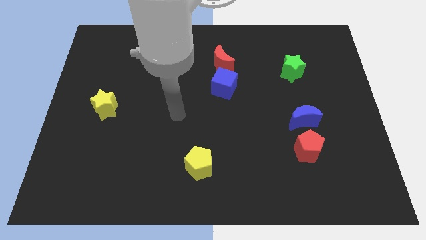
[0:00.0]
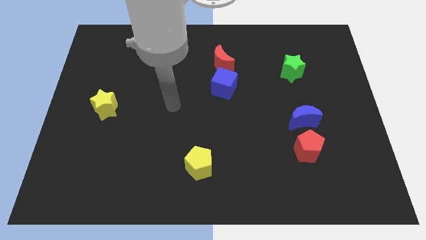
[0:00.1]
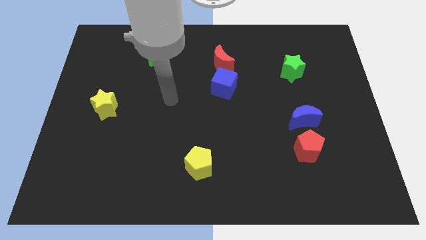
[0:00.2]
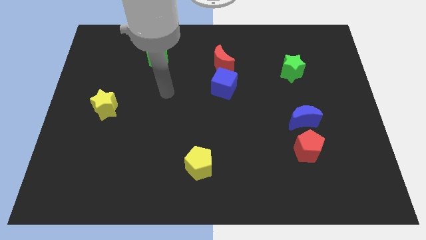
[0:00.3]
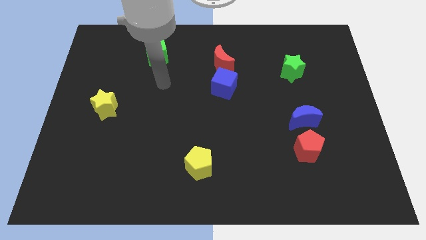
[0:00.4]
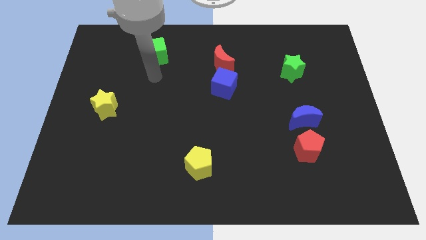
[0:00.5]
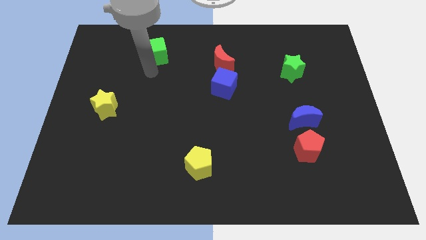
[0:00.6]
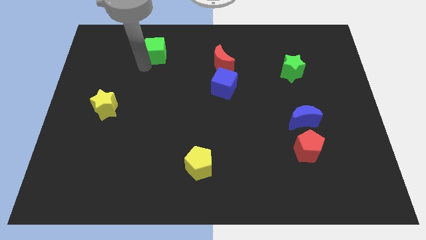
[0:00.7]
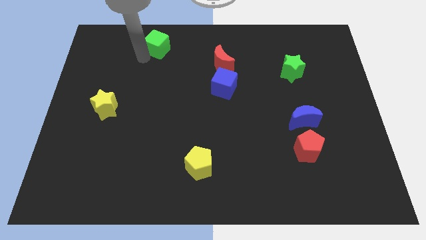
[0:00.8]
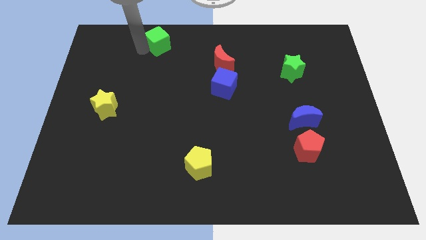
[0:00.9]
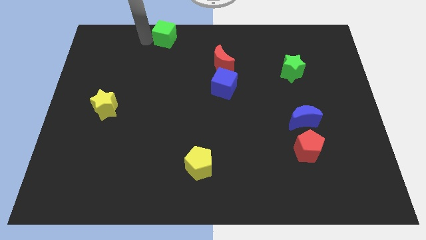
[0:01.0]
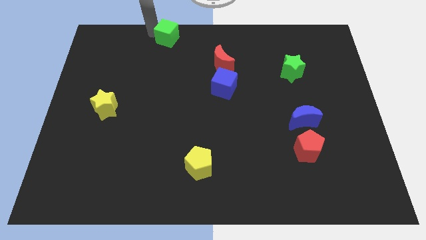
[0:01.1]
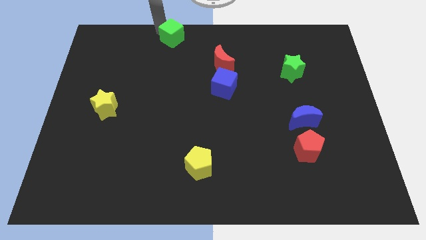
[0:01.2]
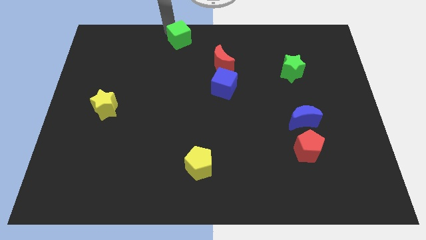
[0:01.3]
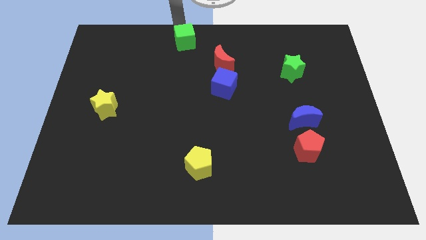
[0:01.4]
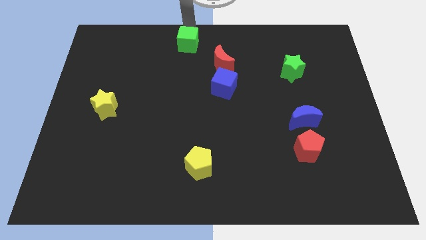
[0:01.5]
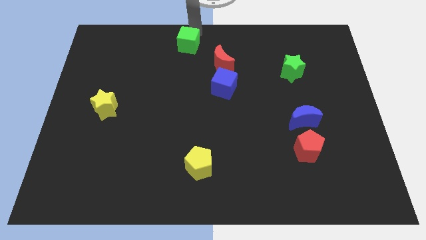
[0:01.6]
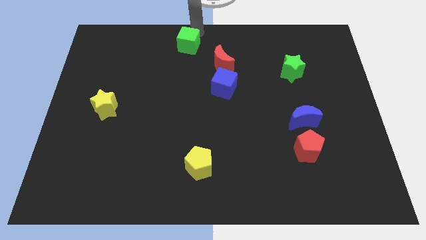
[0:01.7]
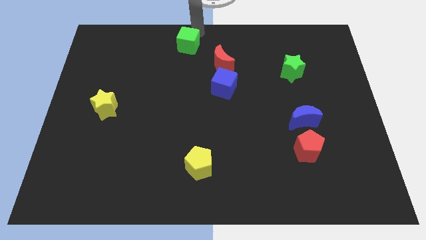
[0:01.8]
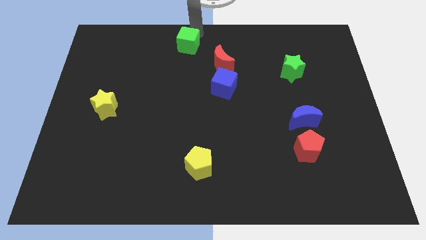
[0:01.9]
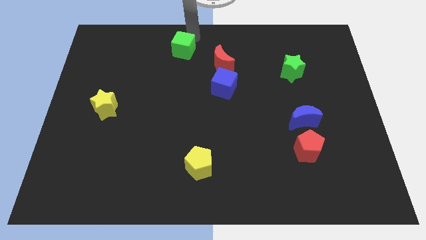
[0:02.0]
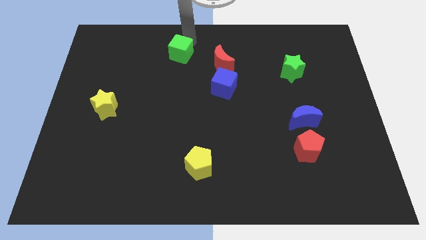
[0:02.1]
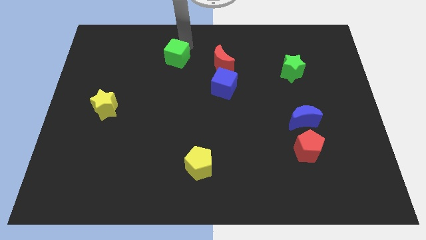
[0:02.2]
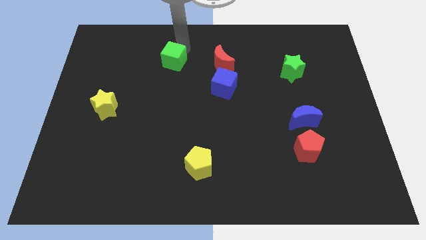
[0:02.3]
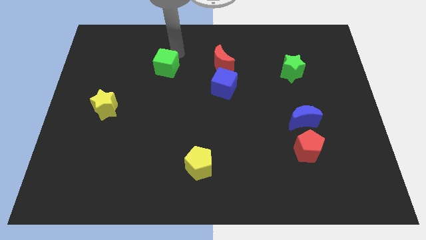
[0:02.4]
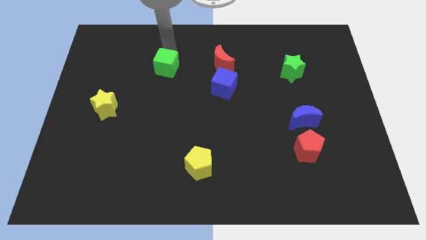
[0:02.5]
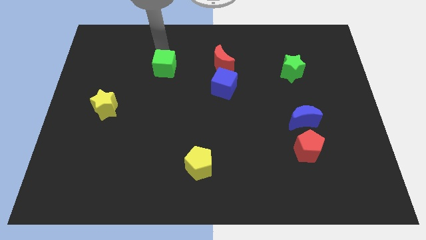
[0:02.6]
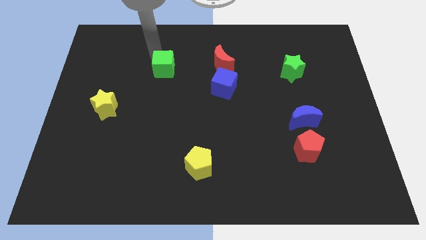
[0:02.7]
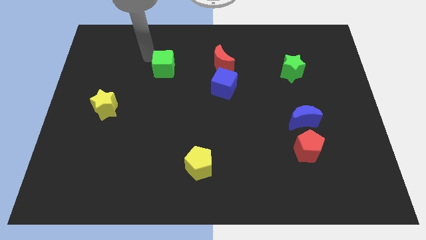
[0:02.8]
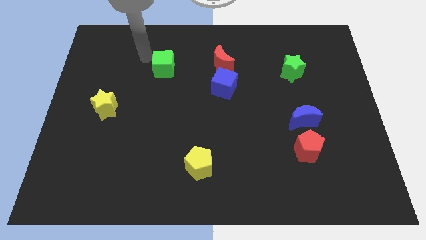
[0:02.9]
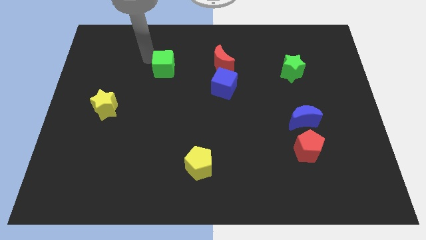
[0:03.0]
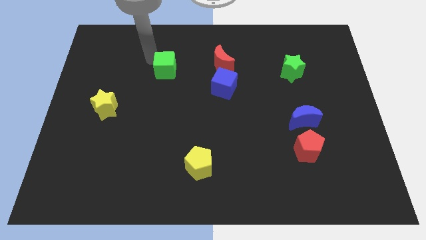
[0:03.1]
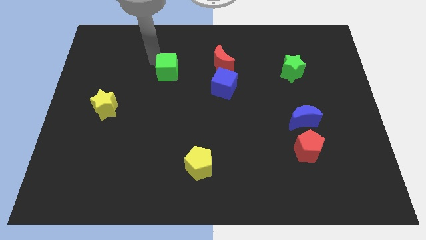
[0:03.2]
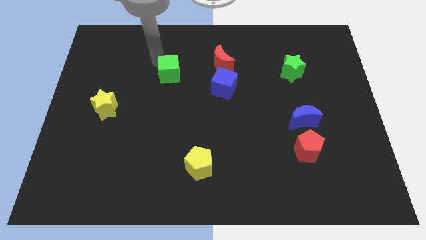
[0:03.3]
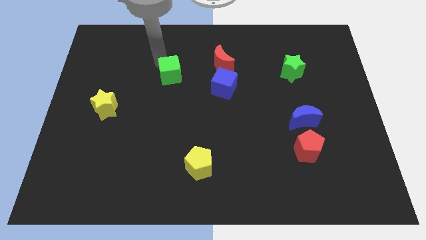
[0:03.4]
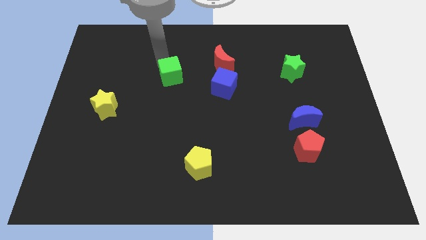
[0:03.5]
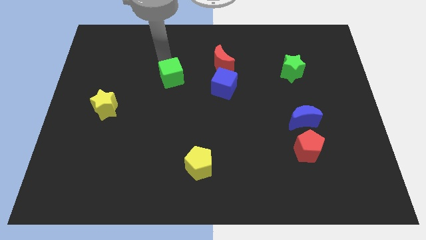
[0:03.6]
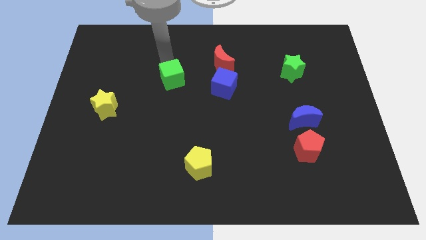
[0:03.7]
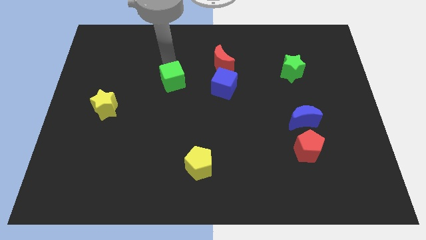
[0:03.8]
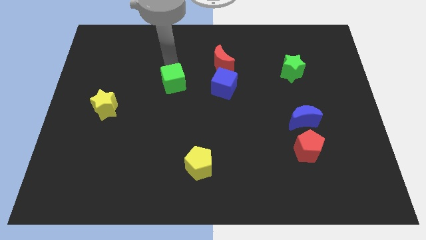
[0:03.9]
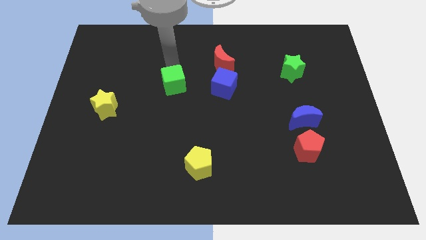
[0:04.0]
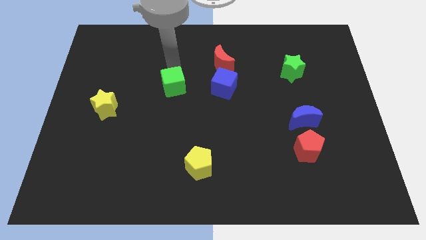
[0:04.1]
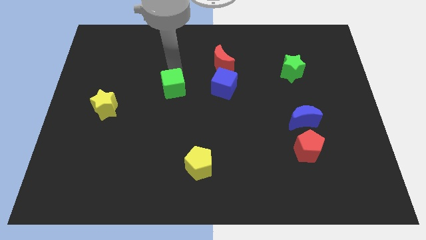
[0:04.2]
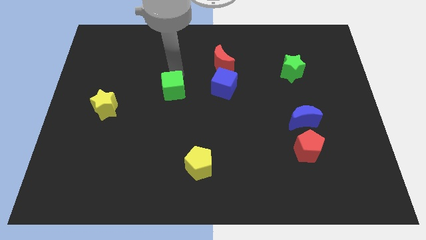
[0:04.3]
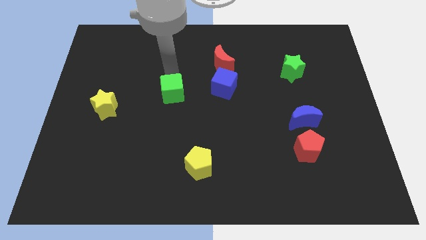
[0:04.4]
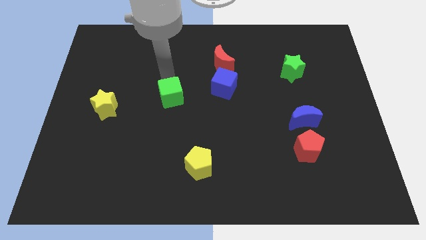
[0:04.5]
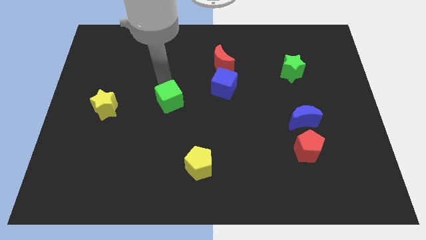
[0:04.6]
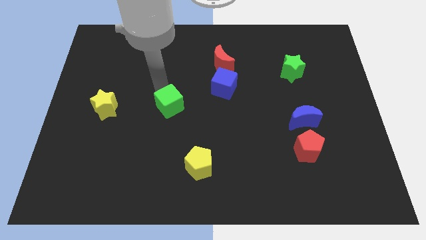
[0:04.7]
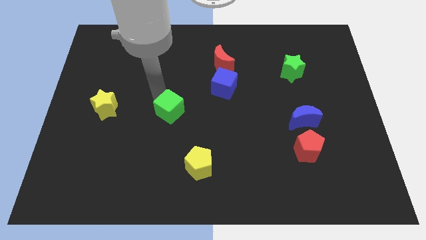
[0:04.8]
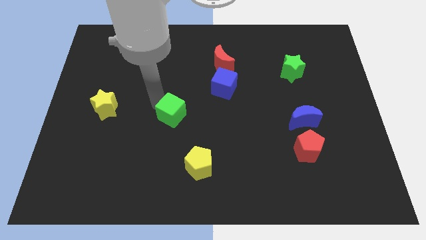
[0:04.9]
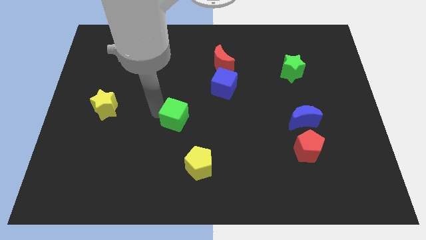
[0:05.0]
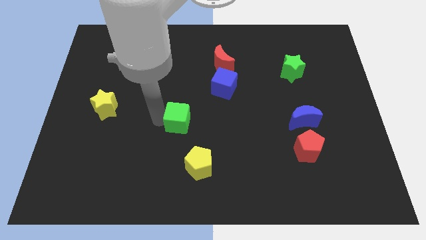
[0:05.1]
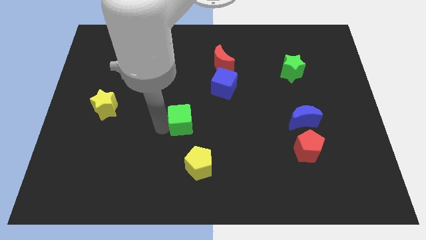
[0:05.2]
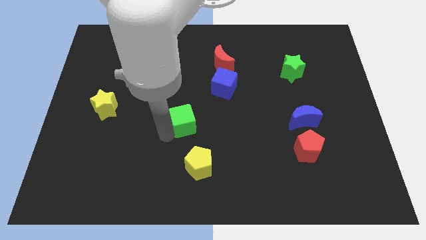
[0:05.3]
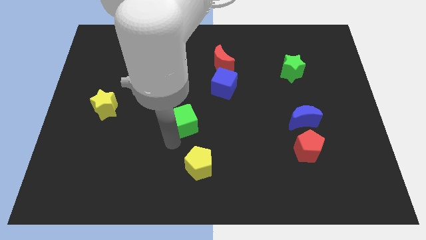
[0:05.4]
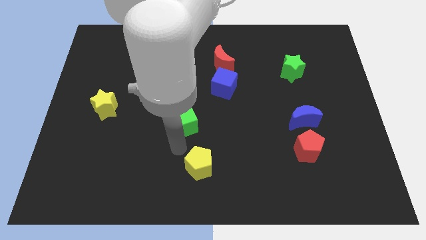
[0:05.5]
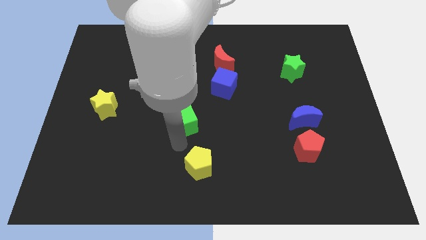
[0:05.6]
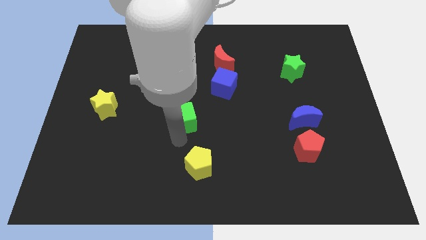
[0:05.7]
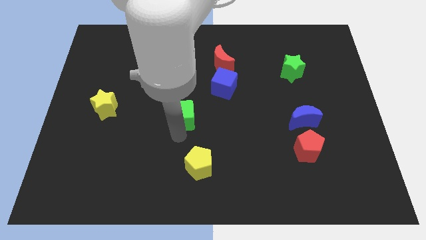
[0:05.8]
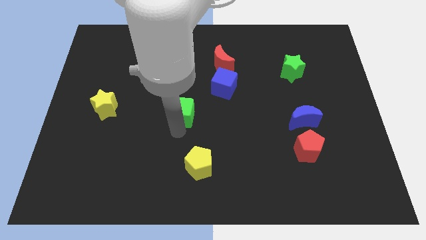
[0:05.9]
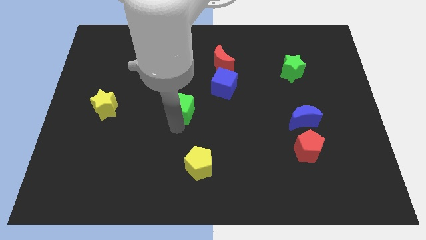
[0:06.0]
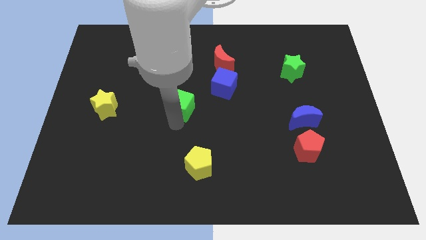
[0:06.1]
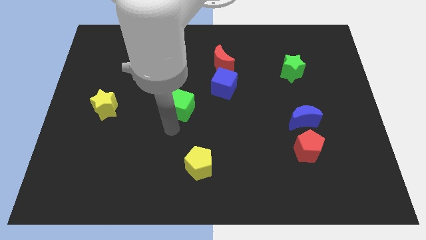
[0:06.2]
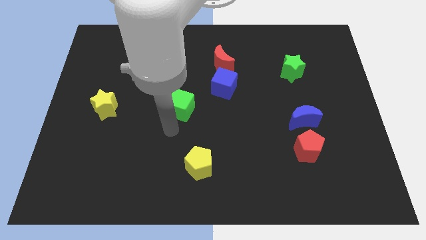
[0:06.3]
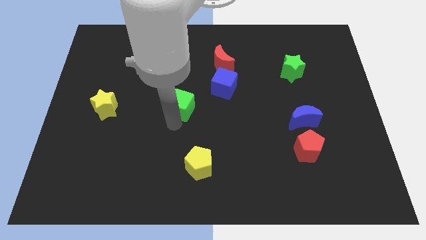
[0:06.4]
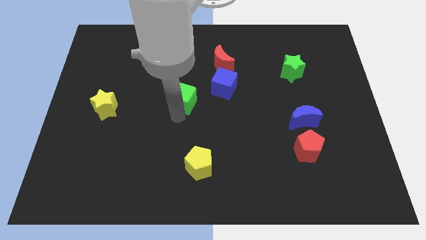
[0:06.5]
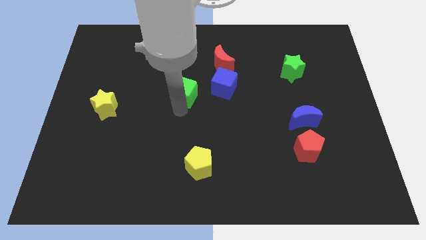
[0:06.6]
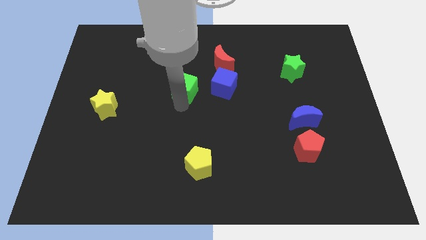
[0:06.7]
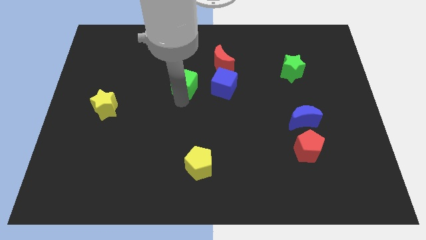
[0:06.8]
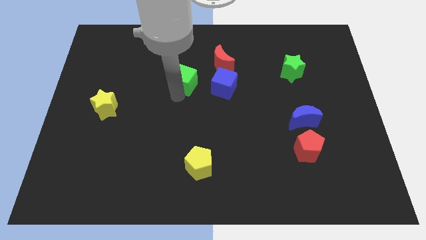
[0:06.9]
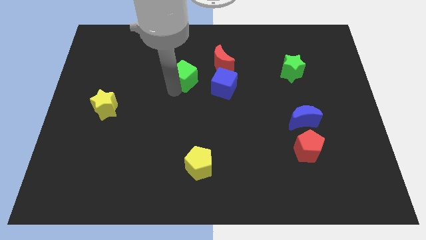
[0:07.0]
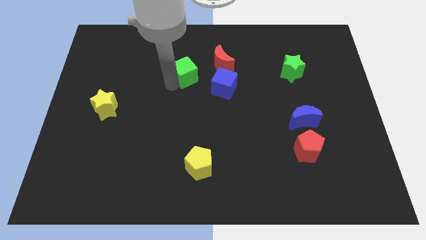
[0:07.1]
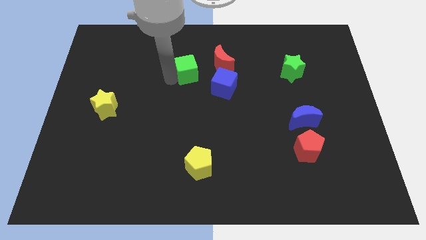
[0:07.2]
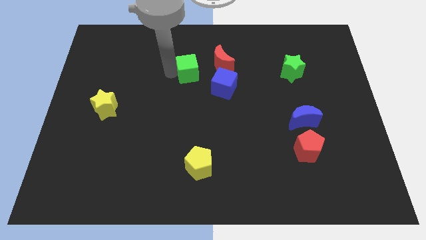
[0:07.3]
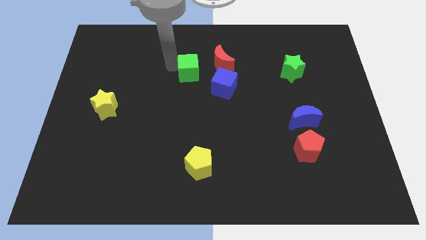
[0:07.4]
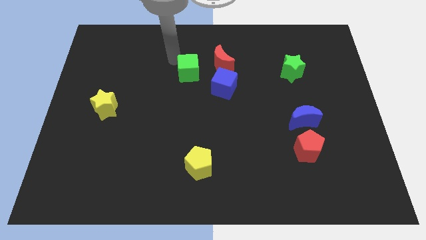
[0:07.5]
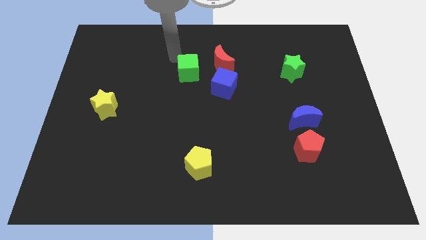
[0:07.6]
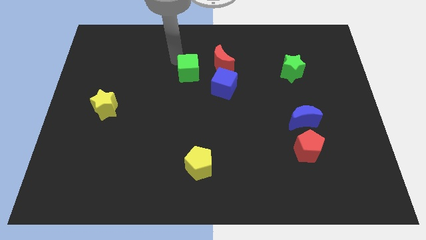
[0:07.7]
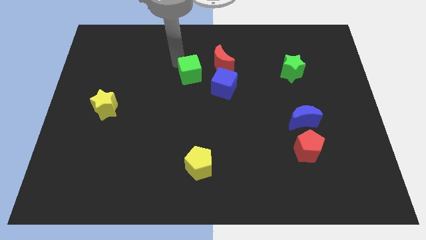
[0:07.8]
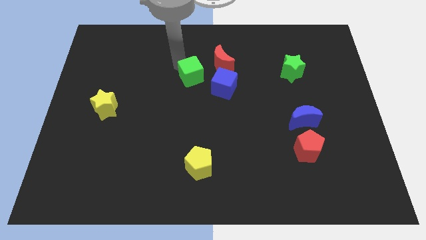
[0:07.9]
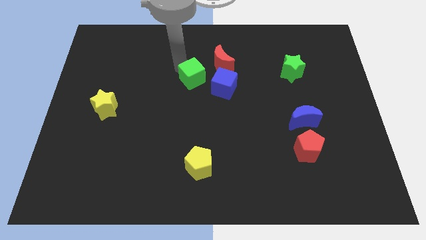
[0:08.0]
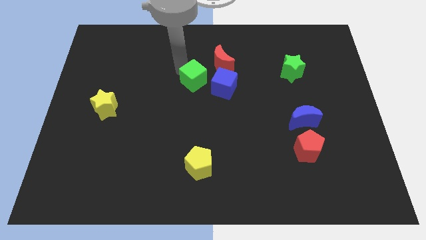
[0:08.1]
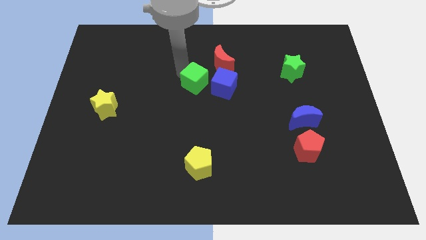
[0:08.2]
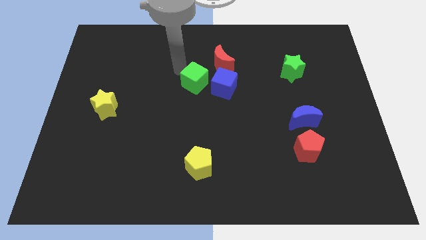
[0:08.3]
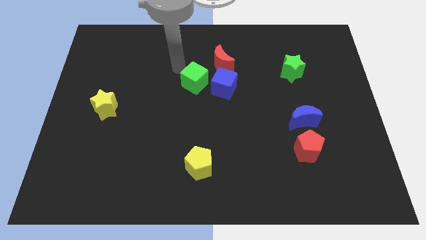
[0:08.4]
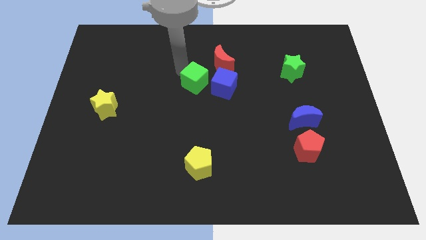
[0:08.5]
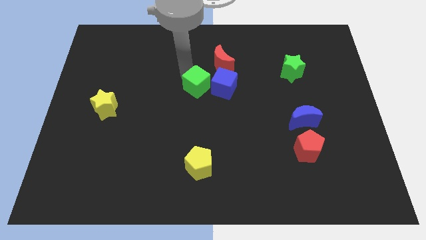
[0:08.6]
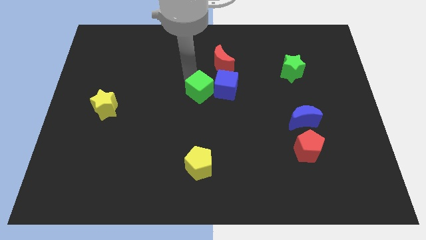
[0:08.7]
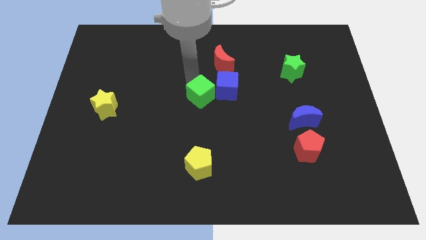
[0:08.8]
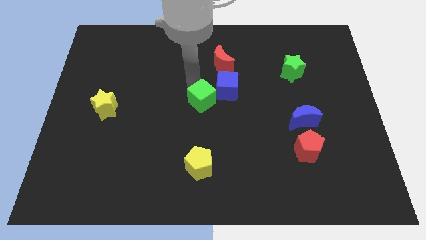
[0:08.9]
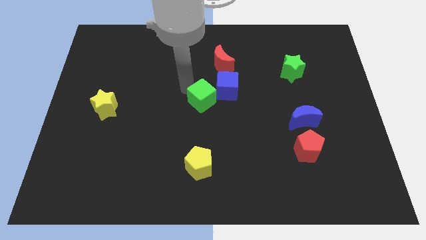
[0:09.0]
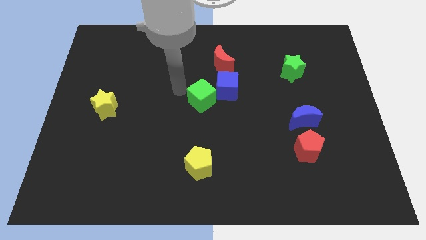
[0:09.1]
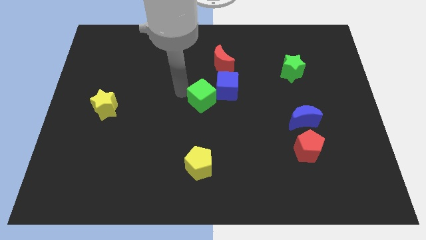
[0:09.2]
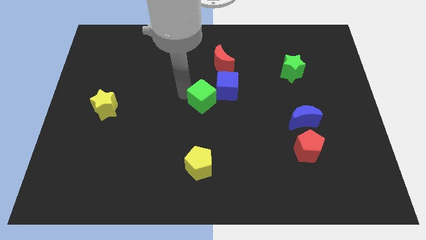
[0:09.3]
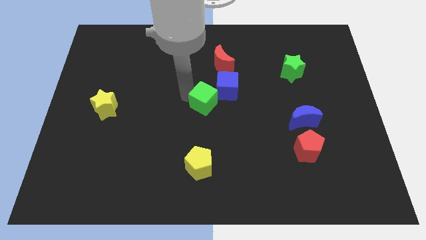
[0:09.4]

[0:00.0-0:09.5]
push the green cube diagonally downwards and to the right
